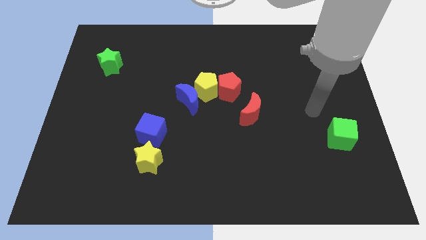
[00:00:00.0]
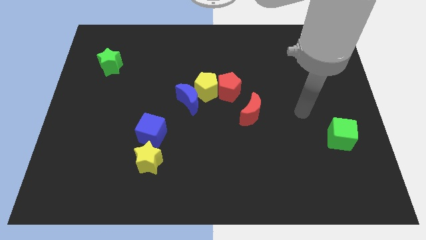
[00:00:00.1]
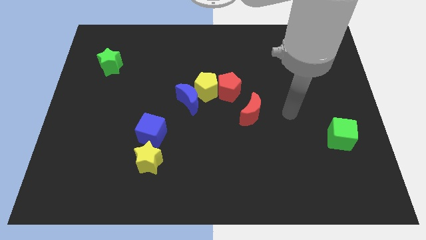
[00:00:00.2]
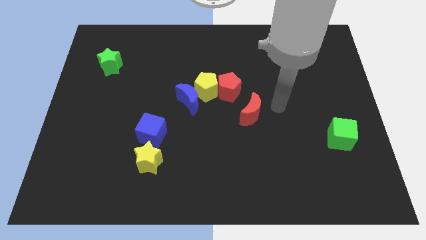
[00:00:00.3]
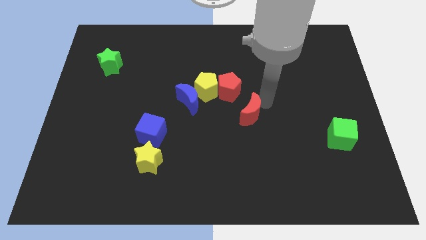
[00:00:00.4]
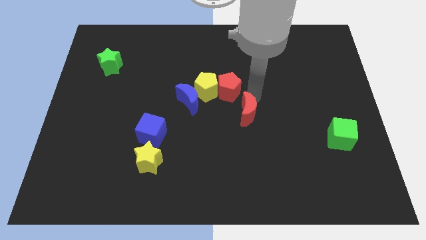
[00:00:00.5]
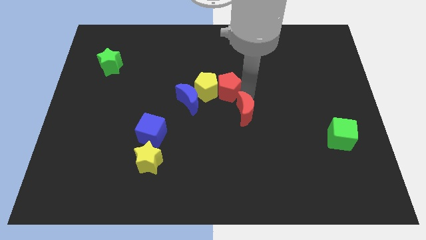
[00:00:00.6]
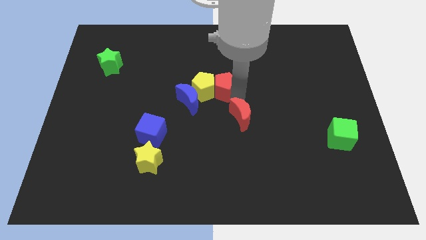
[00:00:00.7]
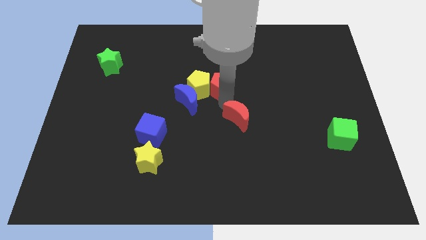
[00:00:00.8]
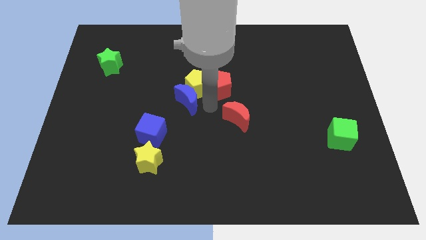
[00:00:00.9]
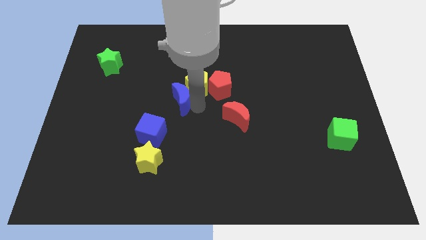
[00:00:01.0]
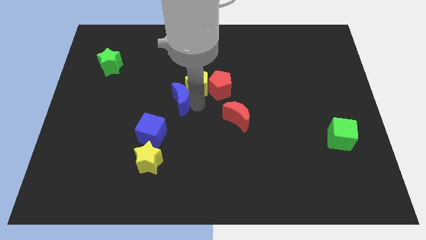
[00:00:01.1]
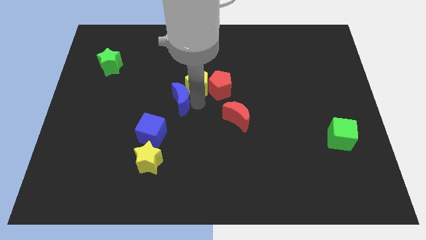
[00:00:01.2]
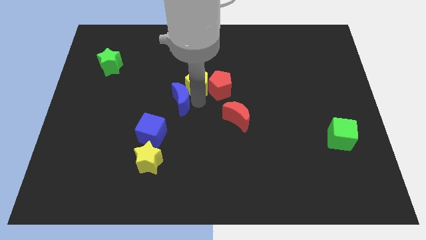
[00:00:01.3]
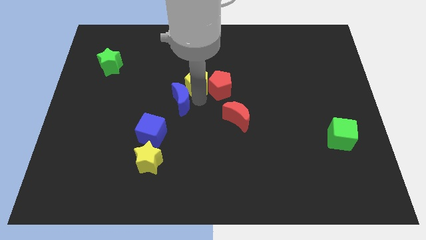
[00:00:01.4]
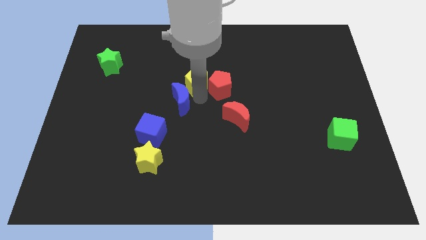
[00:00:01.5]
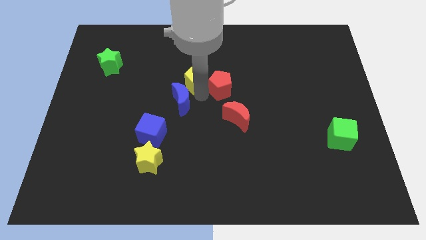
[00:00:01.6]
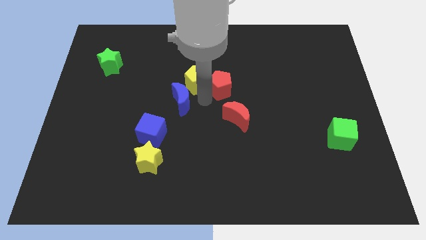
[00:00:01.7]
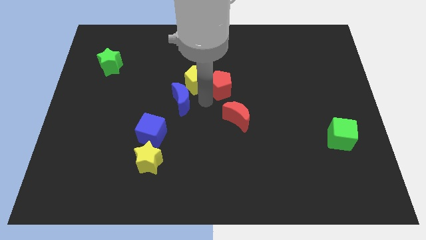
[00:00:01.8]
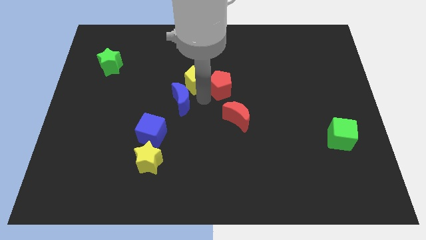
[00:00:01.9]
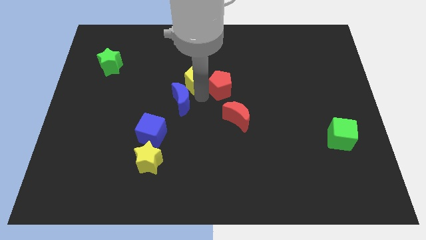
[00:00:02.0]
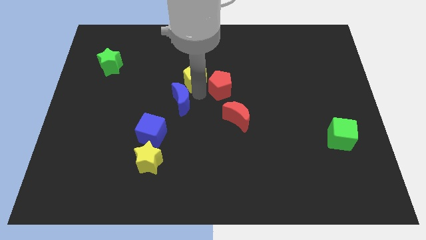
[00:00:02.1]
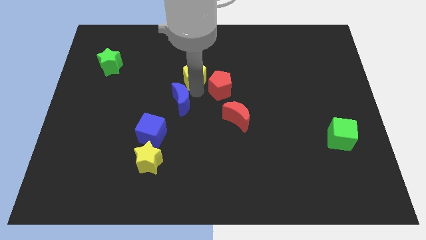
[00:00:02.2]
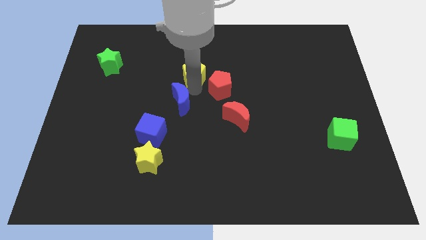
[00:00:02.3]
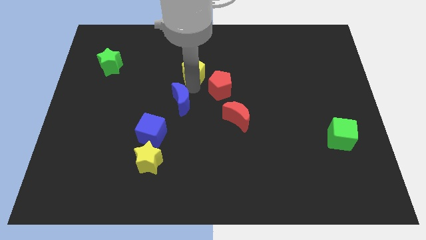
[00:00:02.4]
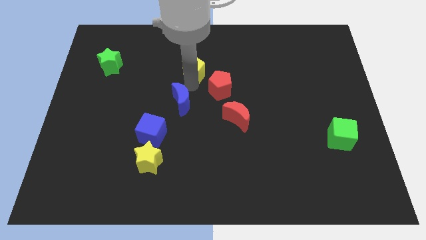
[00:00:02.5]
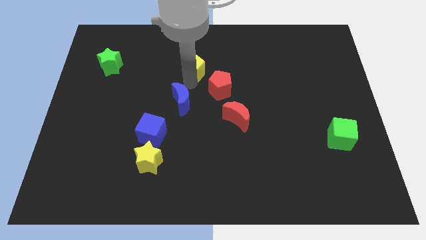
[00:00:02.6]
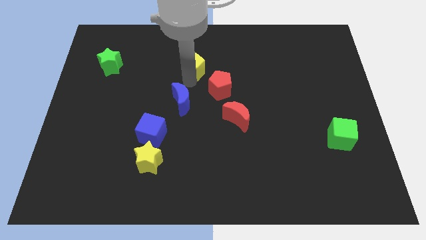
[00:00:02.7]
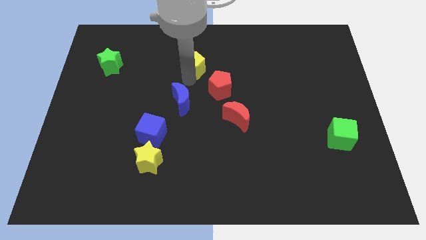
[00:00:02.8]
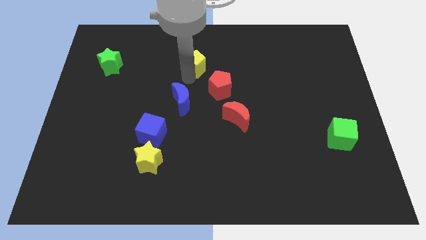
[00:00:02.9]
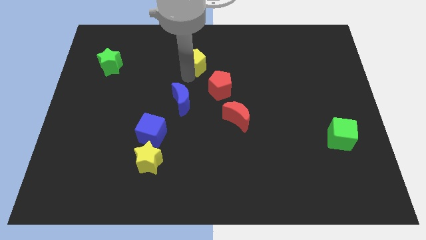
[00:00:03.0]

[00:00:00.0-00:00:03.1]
pull the yellow pentagon apart from the blue moon and red pentagon

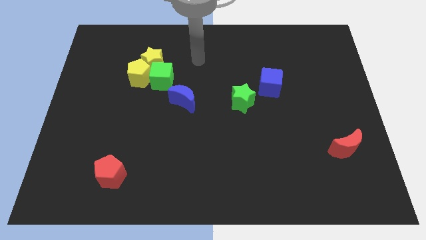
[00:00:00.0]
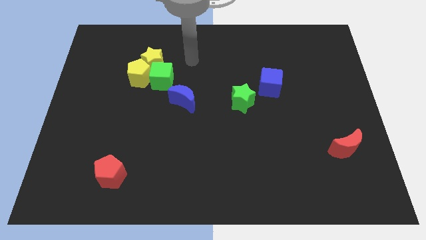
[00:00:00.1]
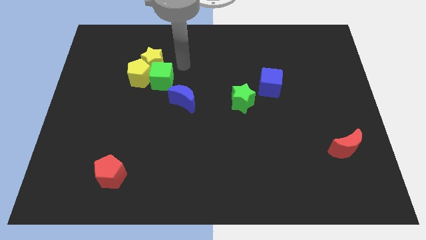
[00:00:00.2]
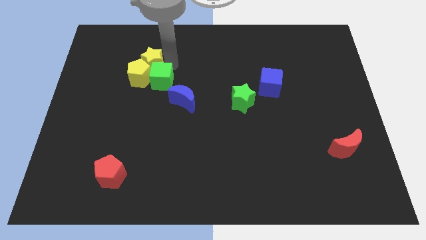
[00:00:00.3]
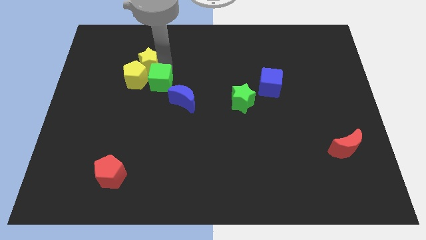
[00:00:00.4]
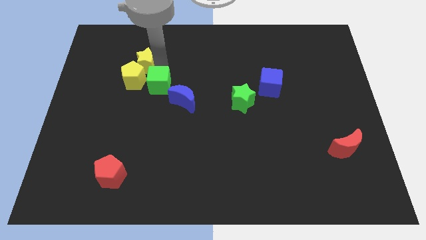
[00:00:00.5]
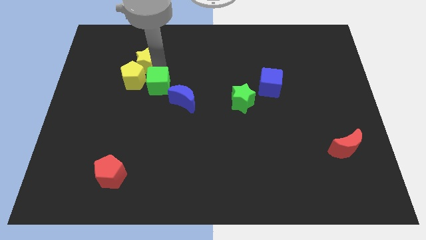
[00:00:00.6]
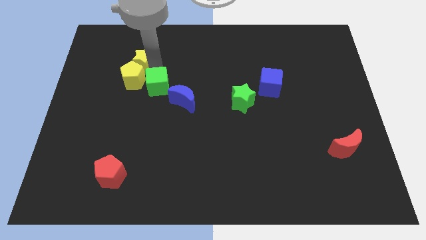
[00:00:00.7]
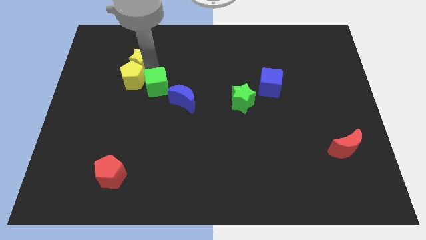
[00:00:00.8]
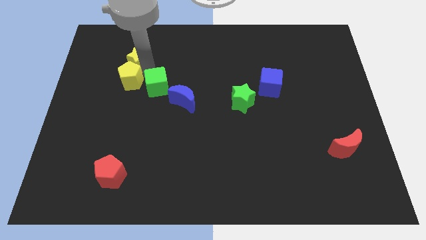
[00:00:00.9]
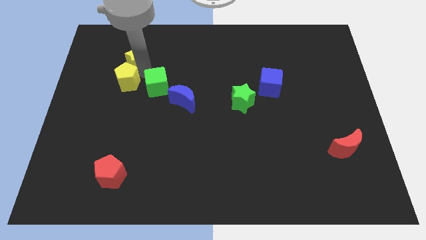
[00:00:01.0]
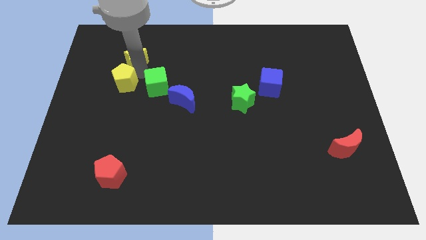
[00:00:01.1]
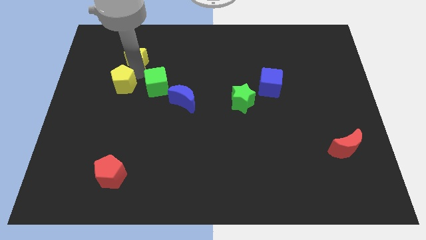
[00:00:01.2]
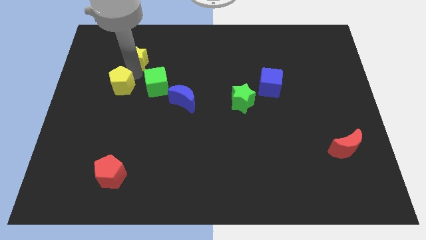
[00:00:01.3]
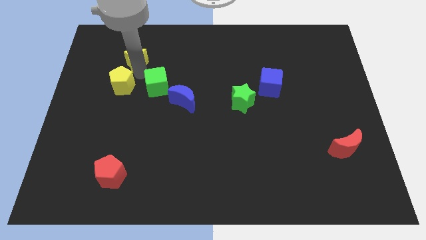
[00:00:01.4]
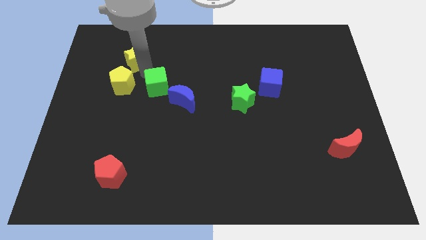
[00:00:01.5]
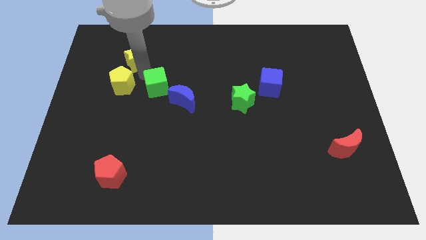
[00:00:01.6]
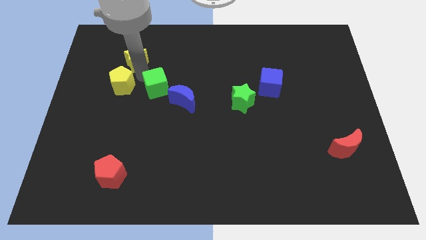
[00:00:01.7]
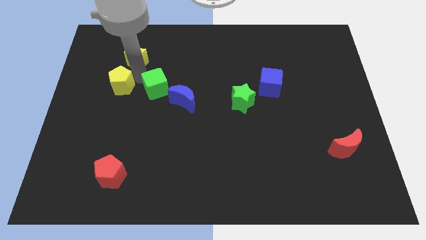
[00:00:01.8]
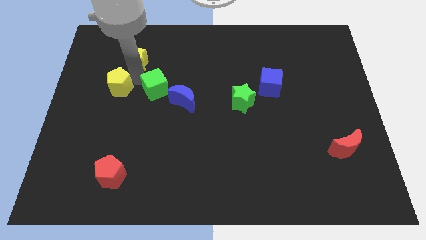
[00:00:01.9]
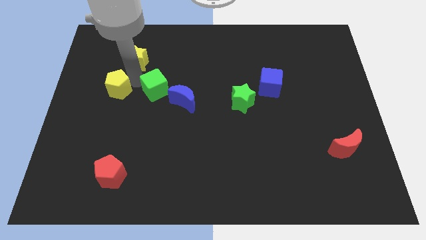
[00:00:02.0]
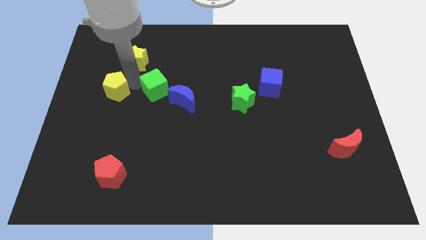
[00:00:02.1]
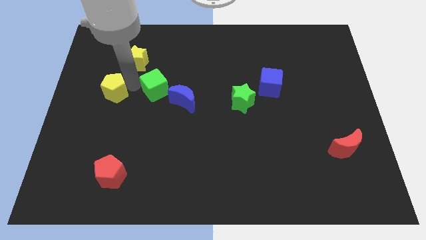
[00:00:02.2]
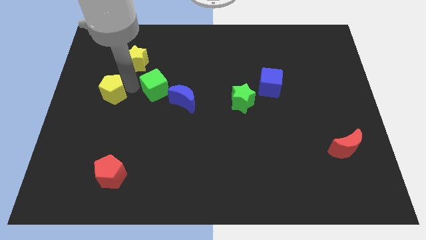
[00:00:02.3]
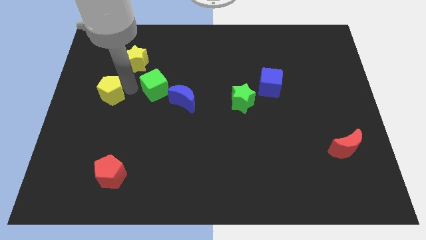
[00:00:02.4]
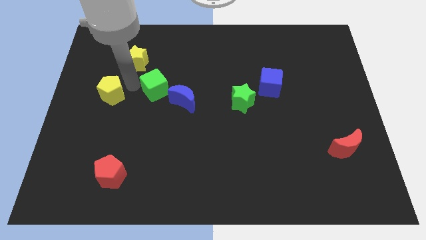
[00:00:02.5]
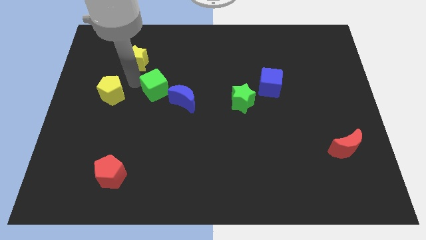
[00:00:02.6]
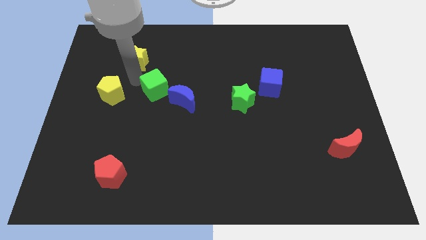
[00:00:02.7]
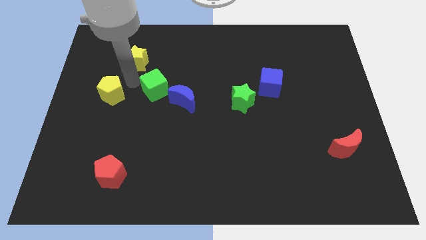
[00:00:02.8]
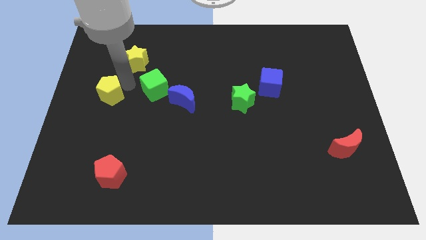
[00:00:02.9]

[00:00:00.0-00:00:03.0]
move the yellow pentagon away from the yellow star and green cube

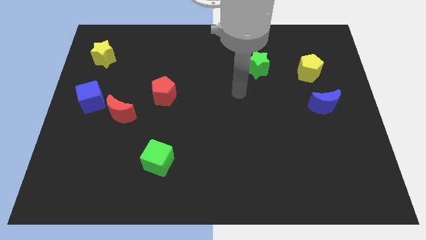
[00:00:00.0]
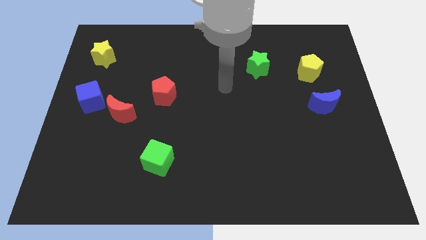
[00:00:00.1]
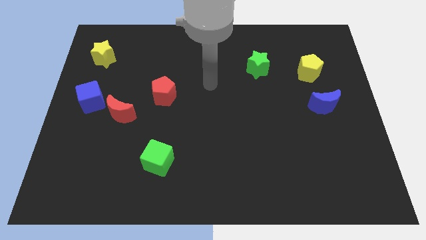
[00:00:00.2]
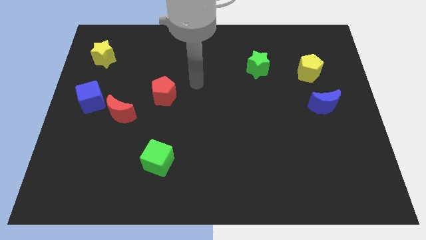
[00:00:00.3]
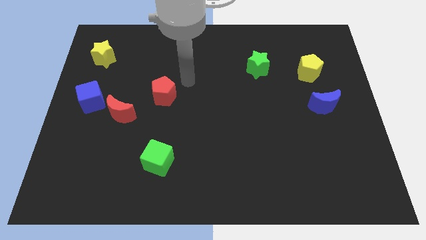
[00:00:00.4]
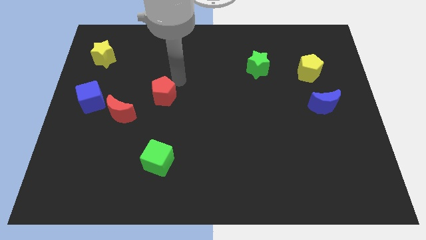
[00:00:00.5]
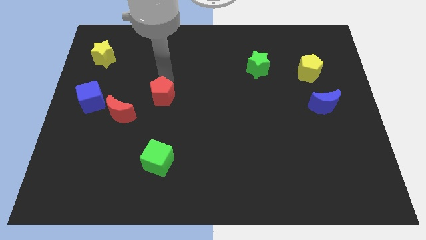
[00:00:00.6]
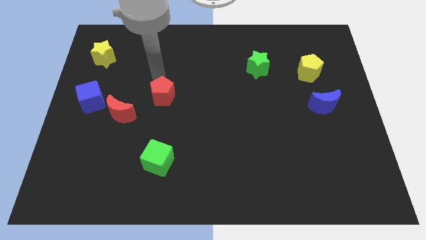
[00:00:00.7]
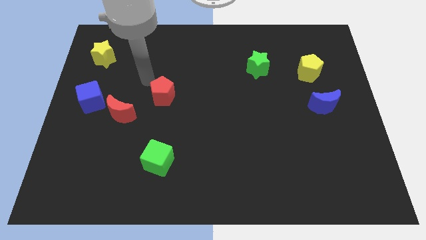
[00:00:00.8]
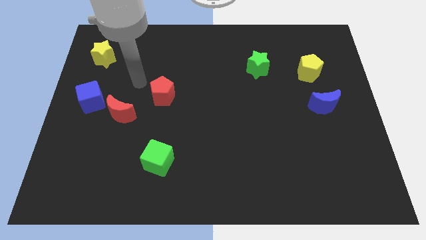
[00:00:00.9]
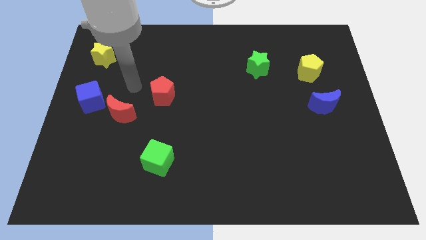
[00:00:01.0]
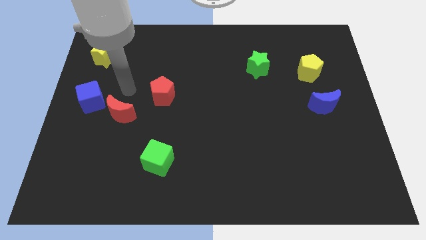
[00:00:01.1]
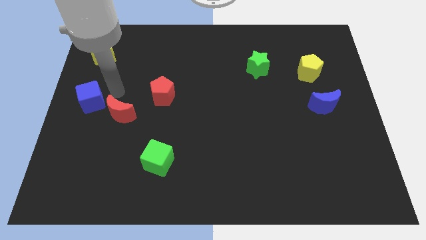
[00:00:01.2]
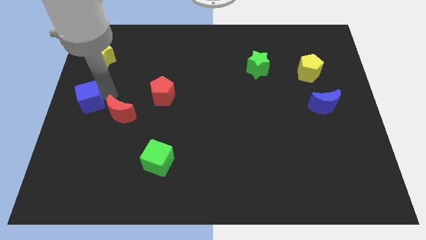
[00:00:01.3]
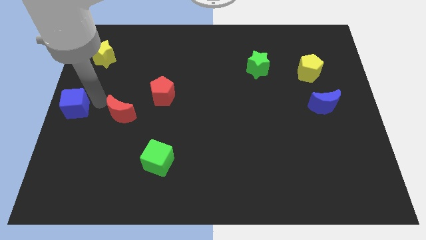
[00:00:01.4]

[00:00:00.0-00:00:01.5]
move the red moon away from the blue cube

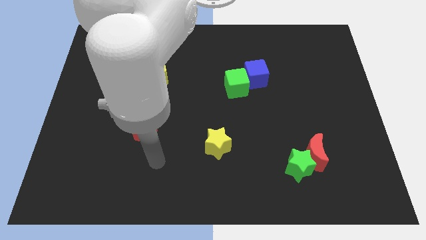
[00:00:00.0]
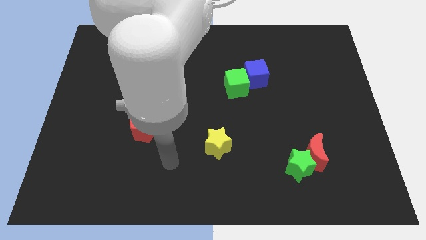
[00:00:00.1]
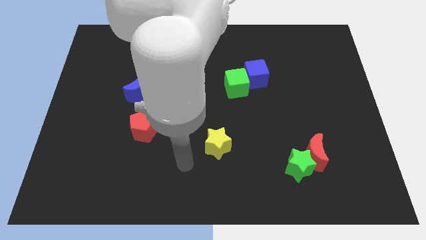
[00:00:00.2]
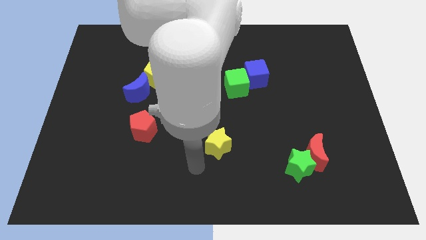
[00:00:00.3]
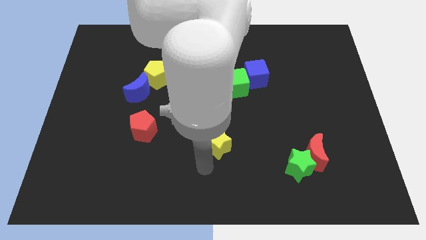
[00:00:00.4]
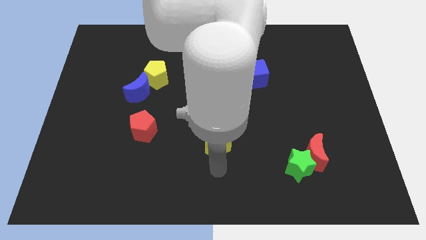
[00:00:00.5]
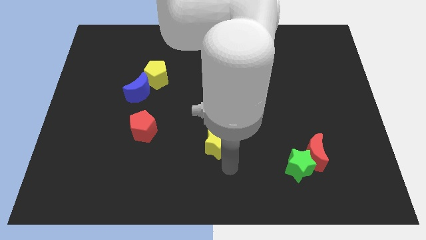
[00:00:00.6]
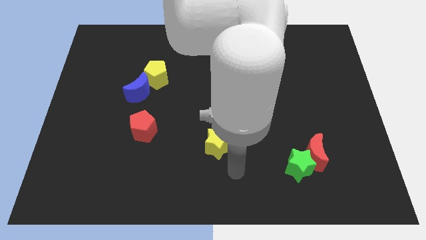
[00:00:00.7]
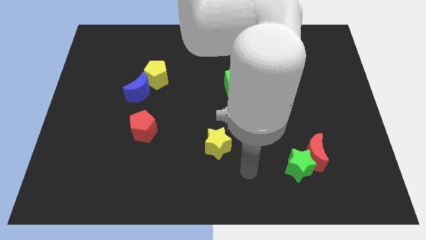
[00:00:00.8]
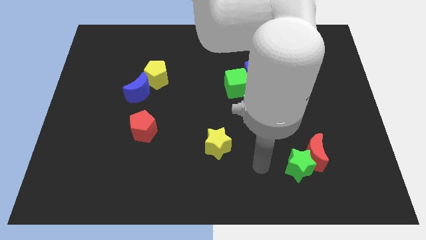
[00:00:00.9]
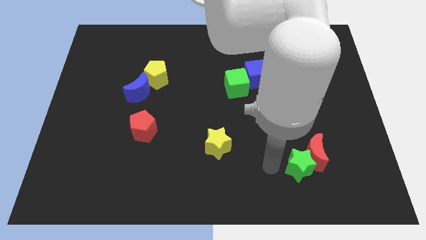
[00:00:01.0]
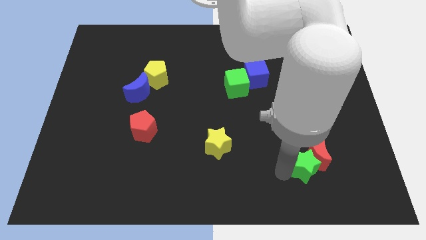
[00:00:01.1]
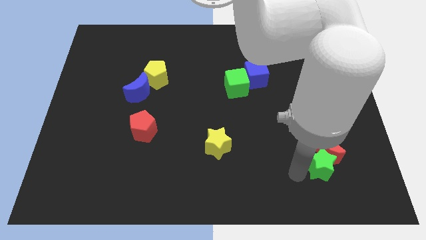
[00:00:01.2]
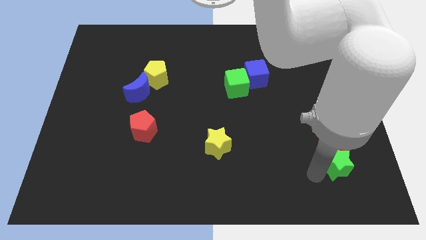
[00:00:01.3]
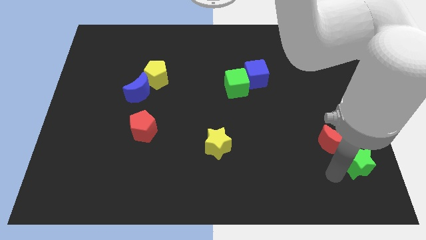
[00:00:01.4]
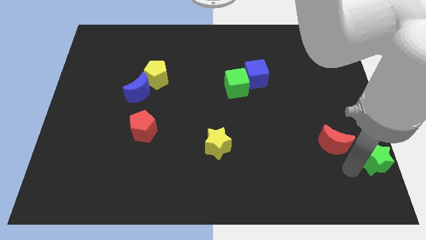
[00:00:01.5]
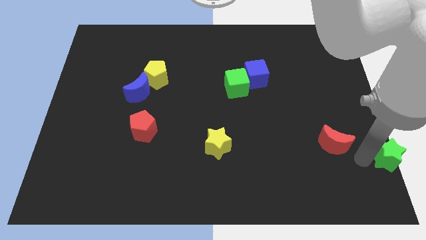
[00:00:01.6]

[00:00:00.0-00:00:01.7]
separate the red moon from the green star
